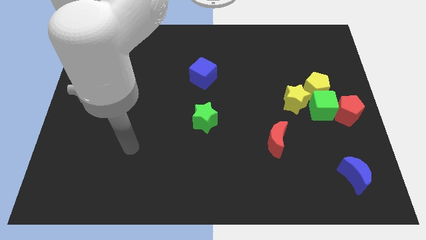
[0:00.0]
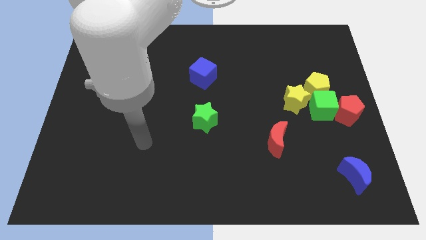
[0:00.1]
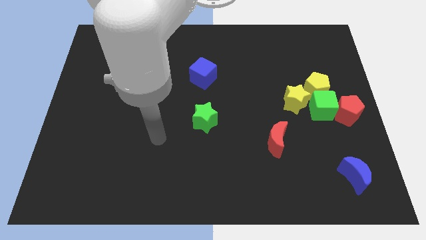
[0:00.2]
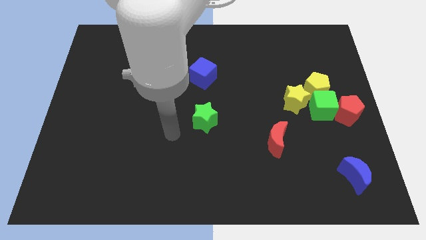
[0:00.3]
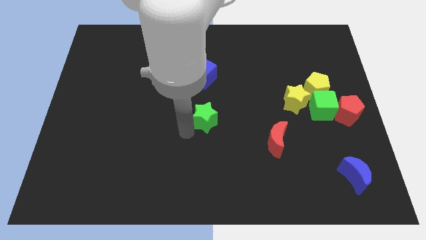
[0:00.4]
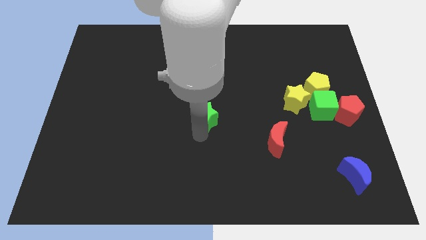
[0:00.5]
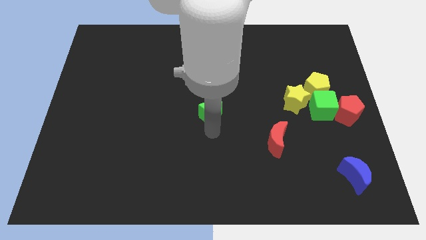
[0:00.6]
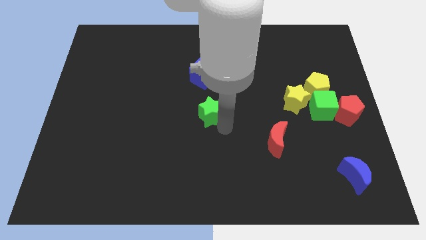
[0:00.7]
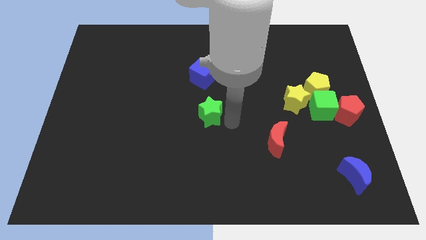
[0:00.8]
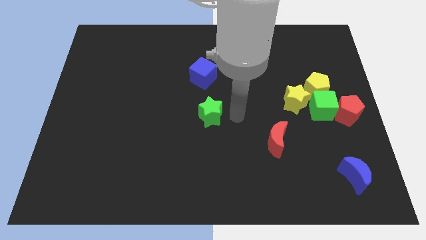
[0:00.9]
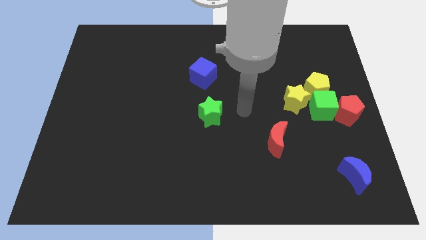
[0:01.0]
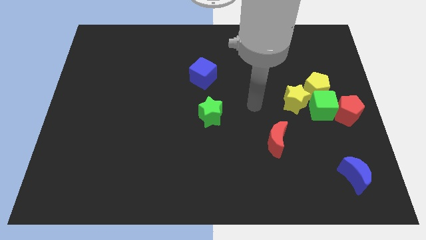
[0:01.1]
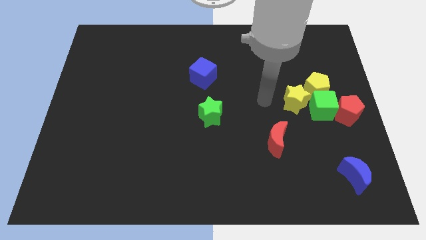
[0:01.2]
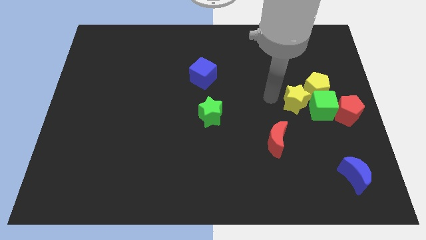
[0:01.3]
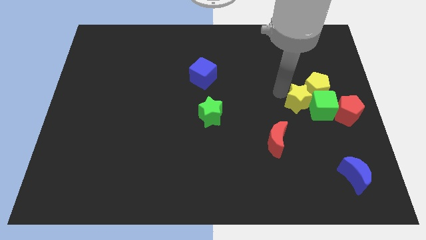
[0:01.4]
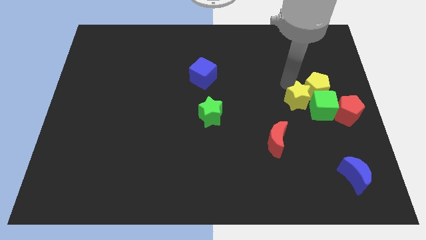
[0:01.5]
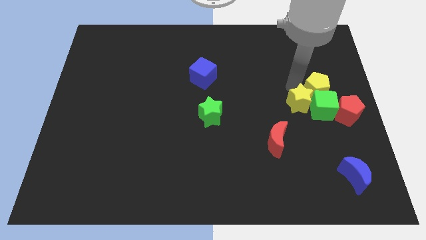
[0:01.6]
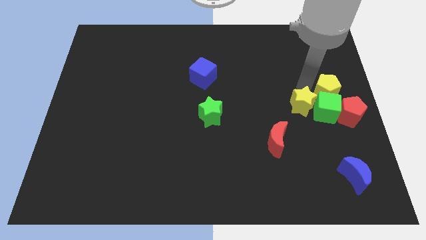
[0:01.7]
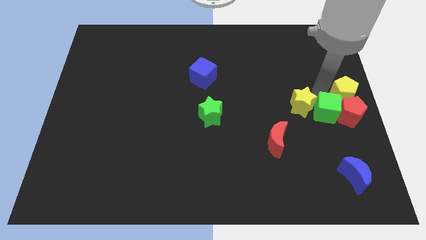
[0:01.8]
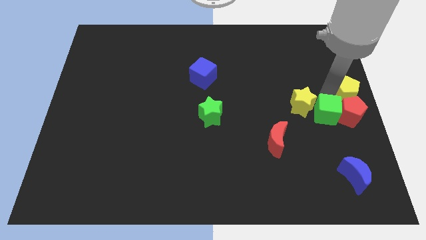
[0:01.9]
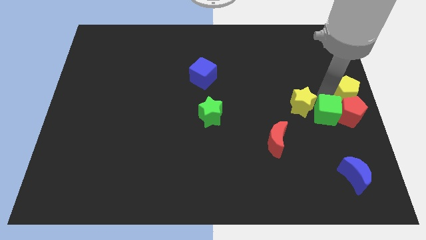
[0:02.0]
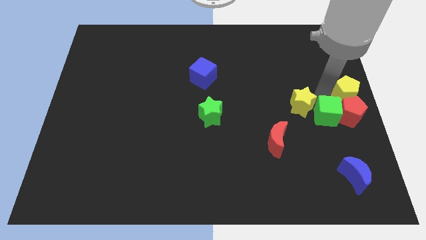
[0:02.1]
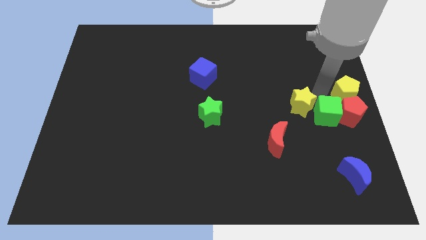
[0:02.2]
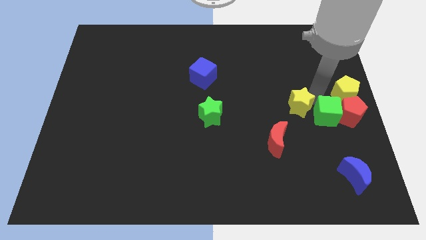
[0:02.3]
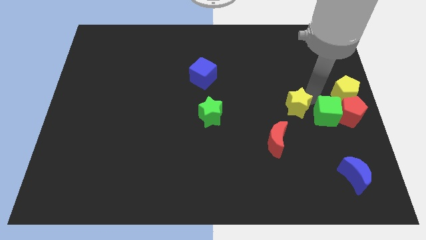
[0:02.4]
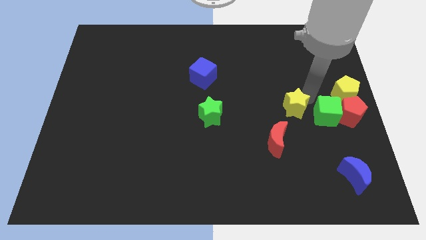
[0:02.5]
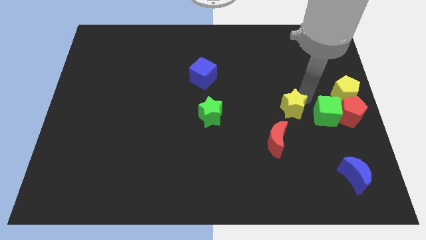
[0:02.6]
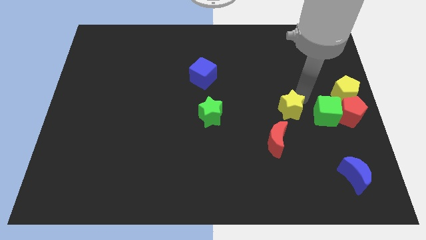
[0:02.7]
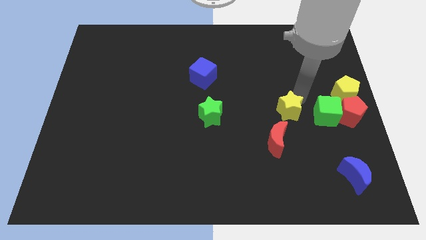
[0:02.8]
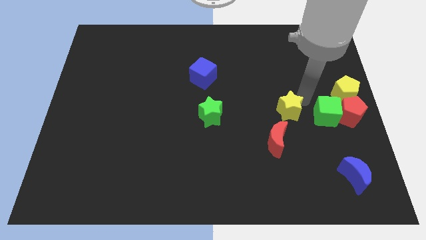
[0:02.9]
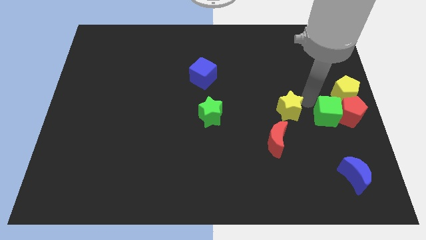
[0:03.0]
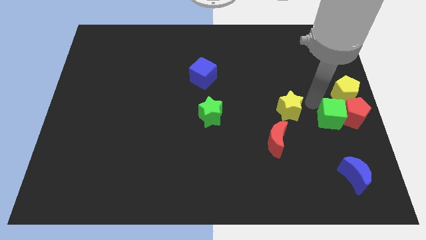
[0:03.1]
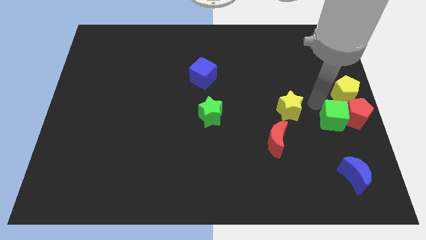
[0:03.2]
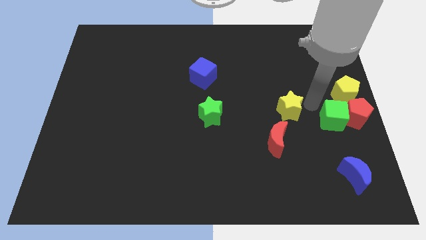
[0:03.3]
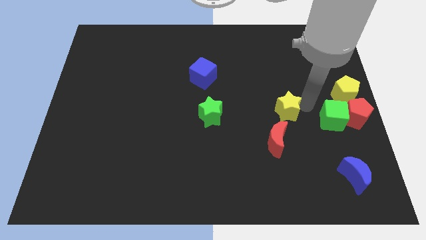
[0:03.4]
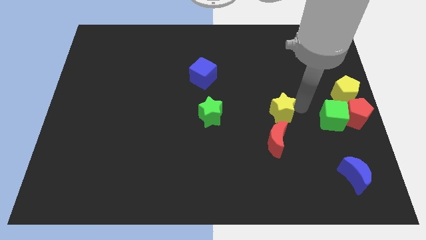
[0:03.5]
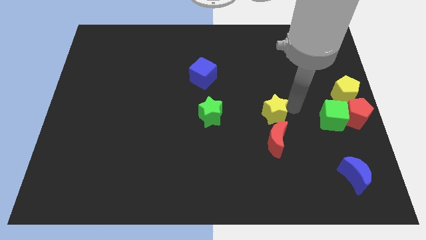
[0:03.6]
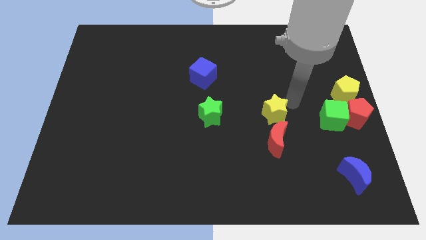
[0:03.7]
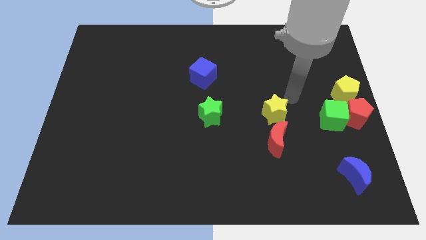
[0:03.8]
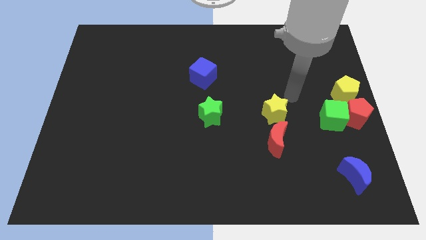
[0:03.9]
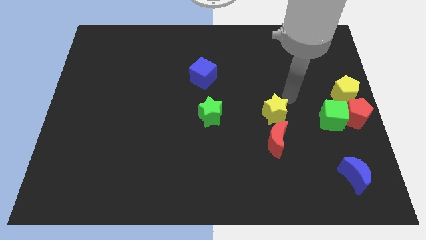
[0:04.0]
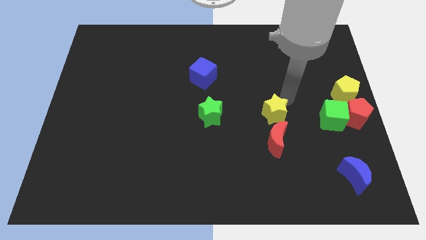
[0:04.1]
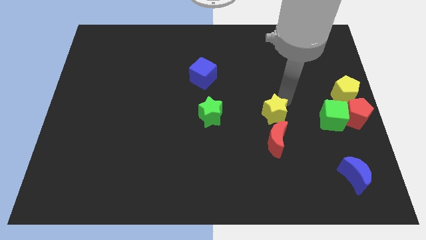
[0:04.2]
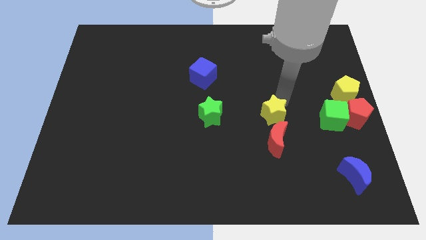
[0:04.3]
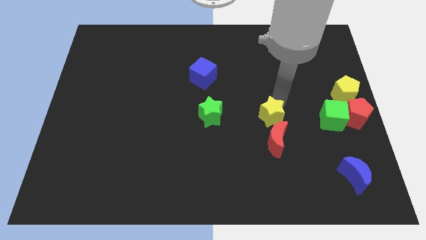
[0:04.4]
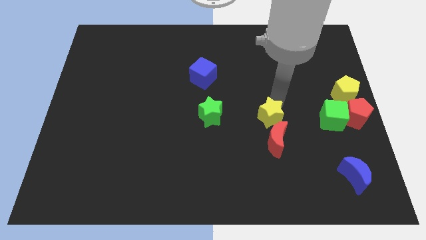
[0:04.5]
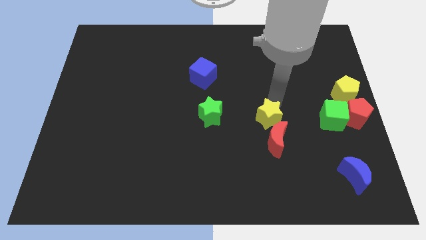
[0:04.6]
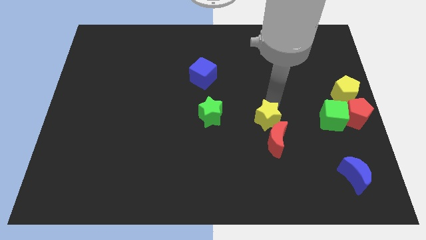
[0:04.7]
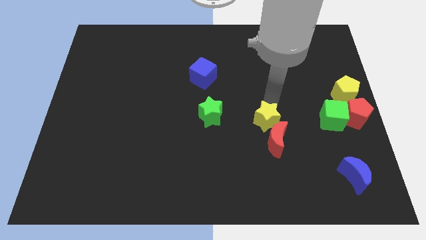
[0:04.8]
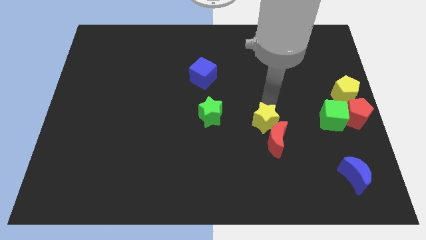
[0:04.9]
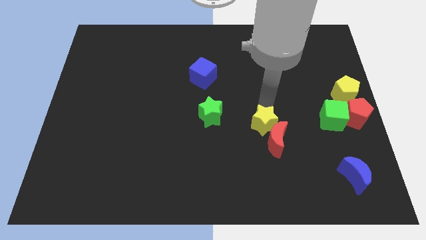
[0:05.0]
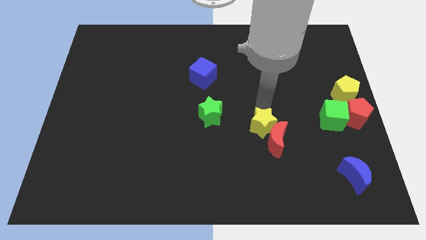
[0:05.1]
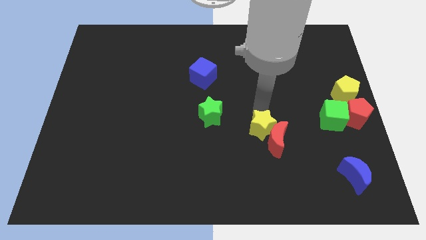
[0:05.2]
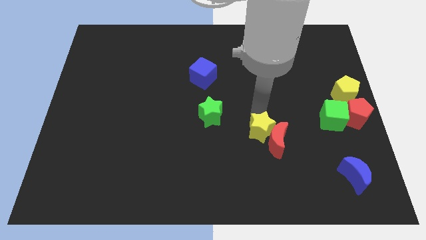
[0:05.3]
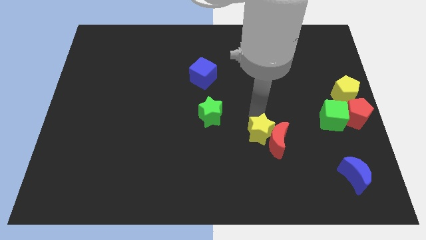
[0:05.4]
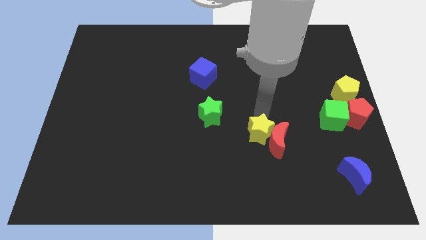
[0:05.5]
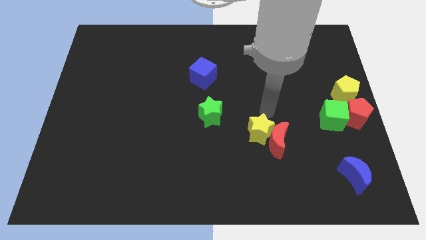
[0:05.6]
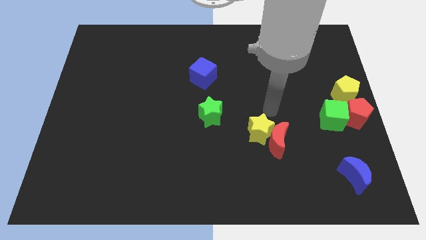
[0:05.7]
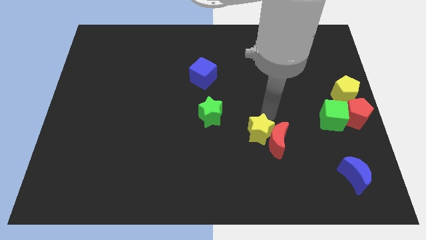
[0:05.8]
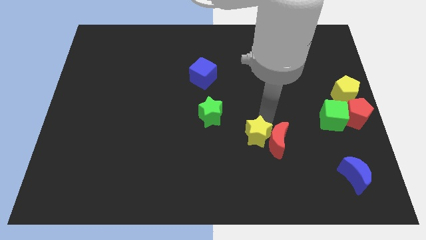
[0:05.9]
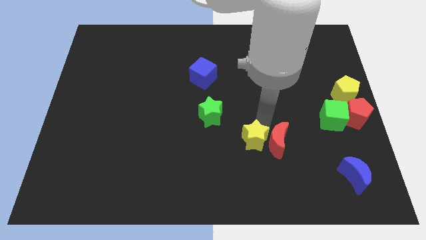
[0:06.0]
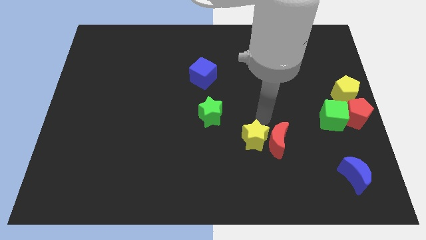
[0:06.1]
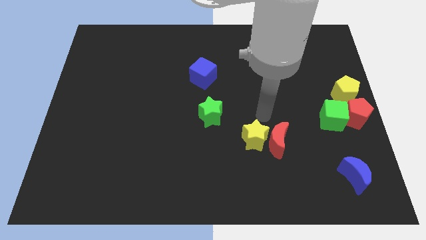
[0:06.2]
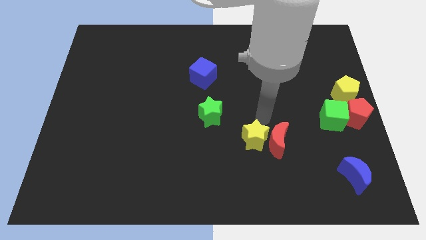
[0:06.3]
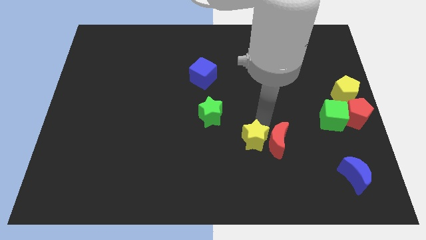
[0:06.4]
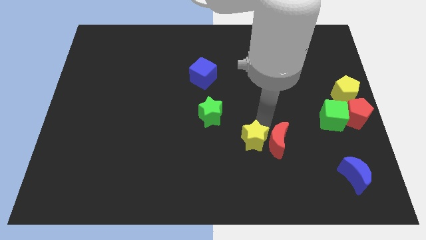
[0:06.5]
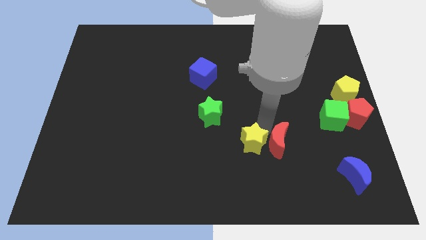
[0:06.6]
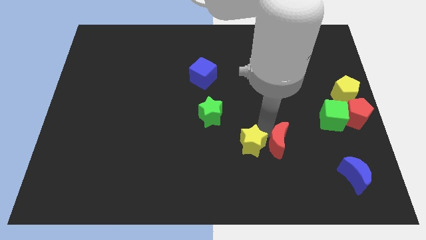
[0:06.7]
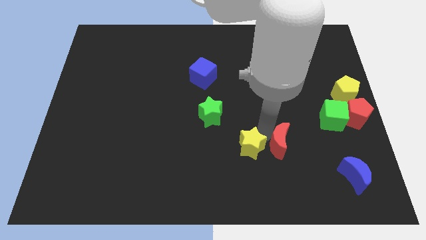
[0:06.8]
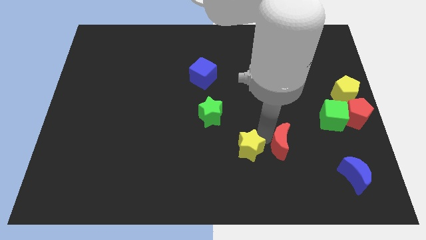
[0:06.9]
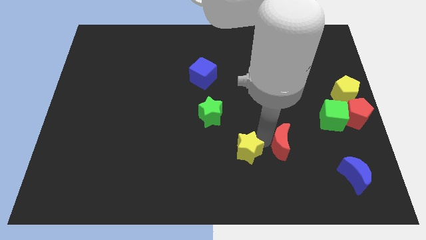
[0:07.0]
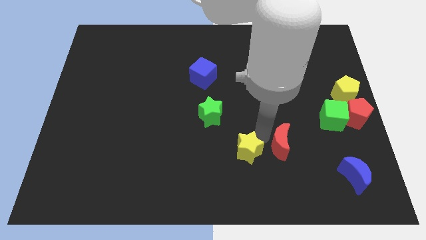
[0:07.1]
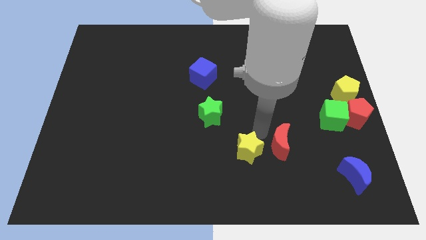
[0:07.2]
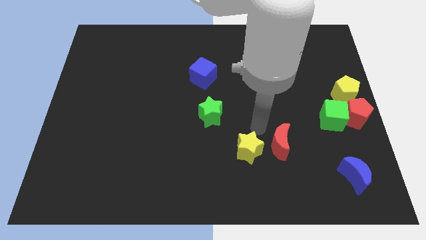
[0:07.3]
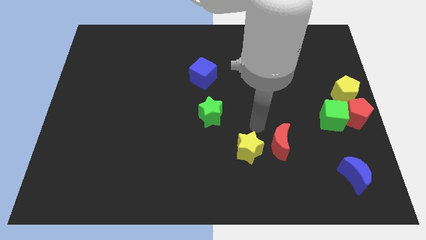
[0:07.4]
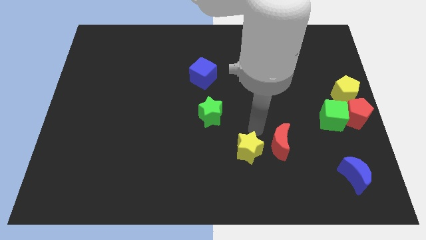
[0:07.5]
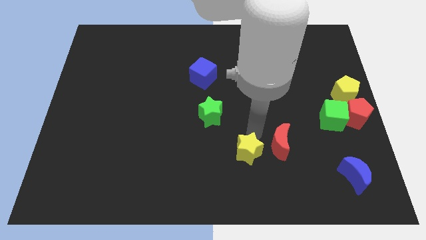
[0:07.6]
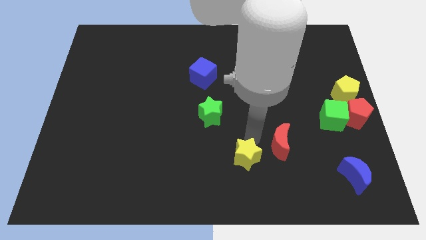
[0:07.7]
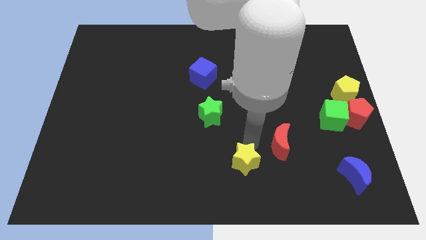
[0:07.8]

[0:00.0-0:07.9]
slide the yellow star to the bottom
